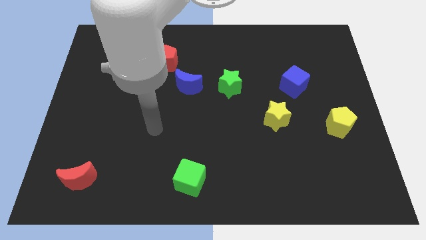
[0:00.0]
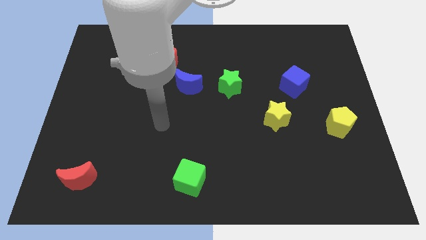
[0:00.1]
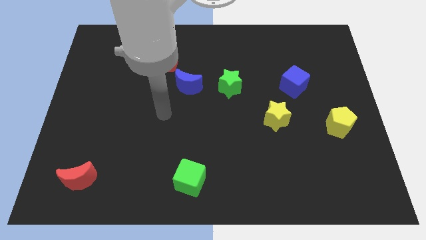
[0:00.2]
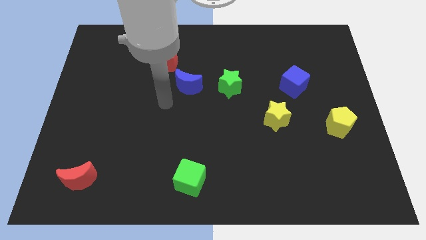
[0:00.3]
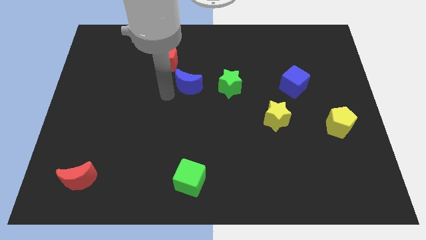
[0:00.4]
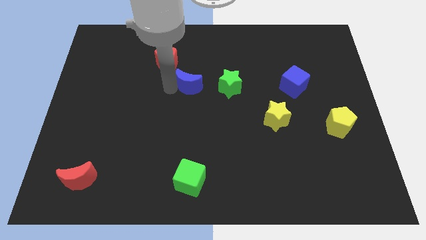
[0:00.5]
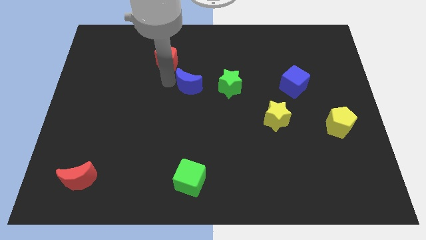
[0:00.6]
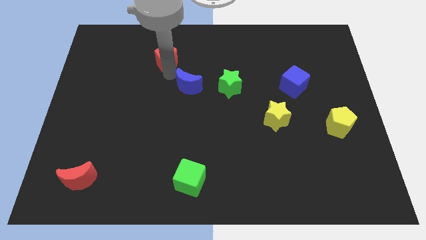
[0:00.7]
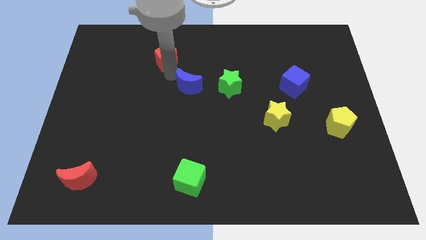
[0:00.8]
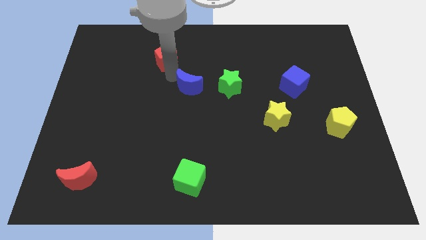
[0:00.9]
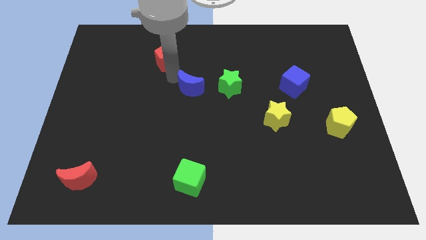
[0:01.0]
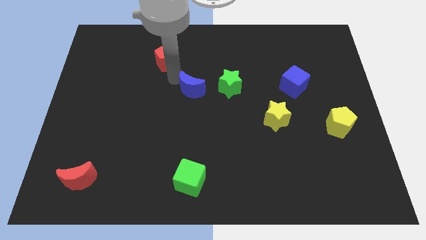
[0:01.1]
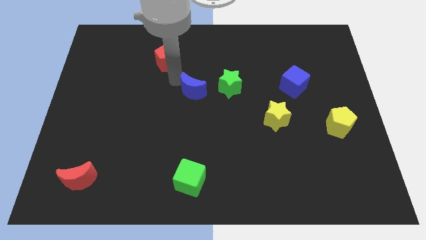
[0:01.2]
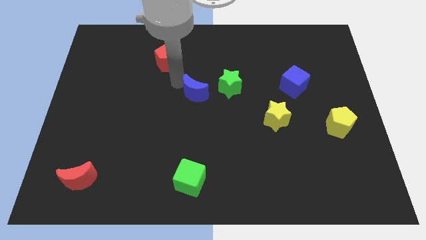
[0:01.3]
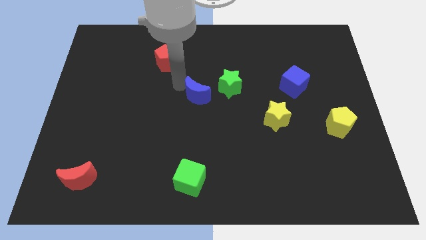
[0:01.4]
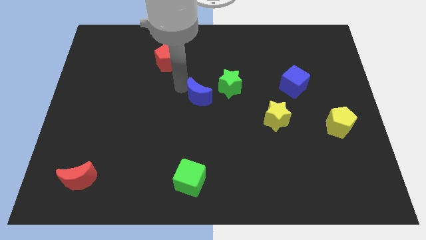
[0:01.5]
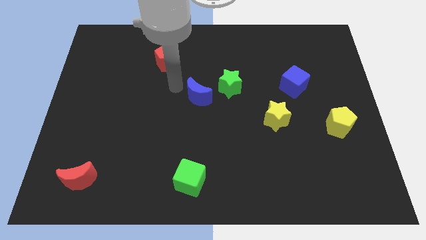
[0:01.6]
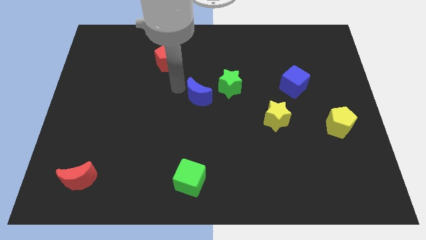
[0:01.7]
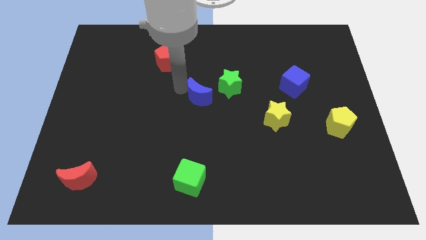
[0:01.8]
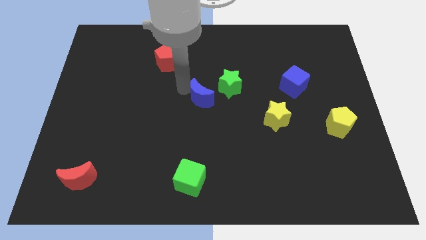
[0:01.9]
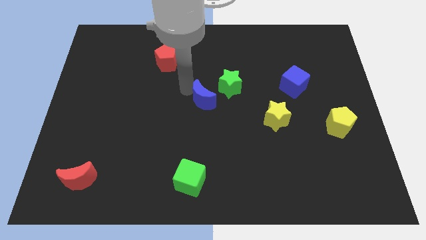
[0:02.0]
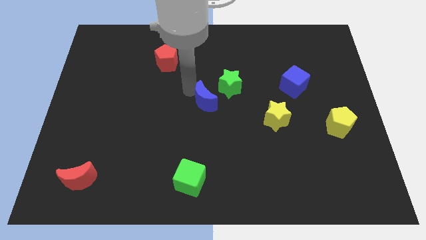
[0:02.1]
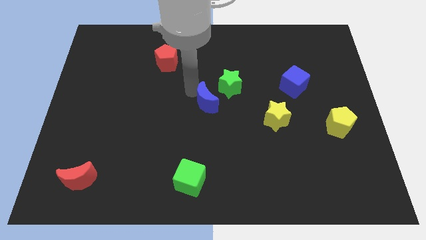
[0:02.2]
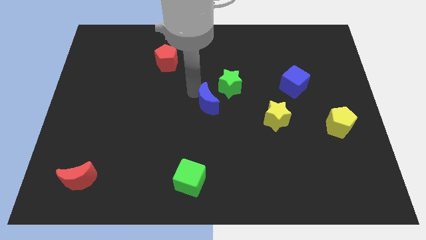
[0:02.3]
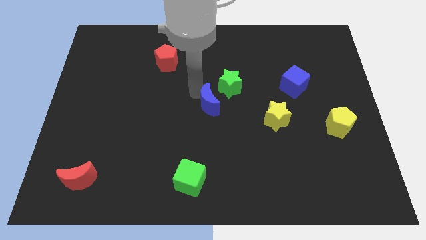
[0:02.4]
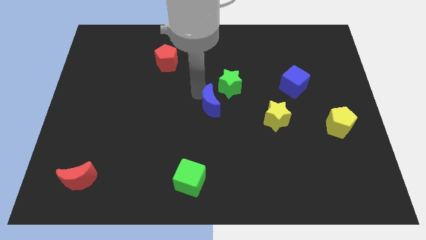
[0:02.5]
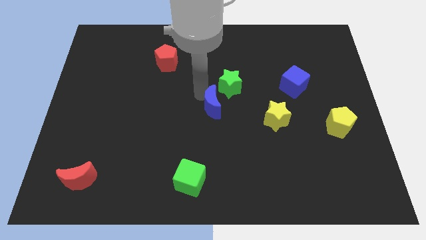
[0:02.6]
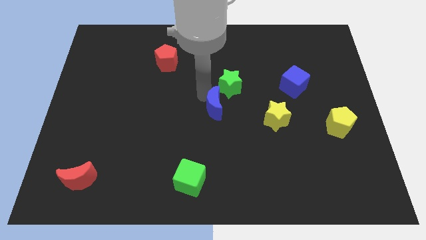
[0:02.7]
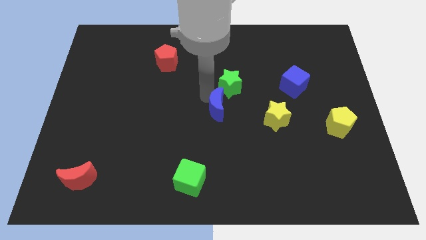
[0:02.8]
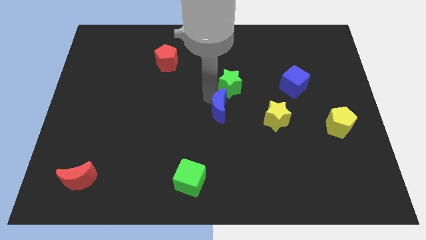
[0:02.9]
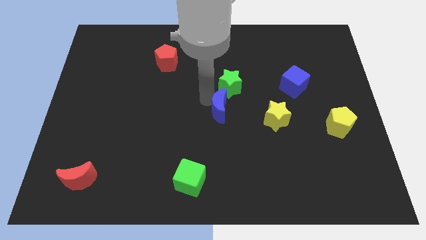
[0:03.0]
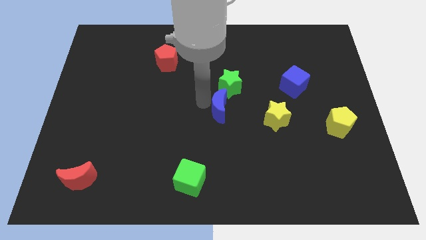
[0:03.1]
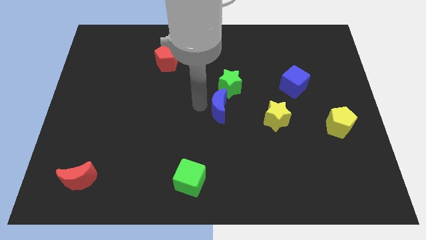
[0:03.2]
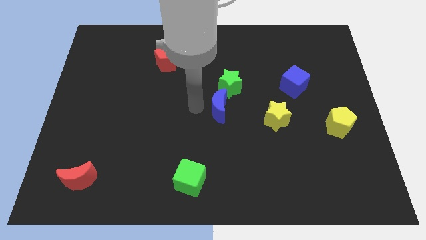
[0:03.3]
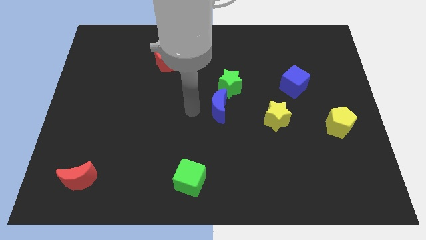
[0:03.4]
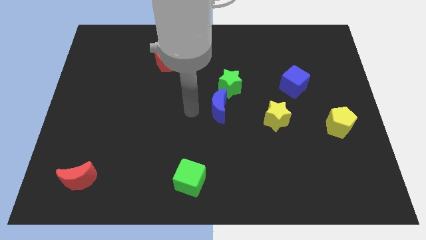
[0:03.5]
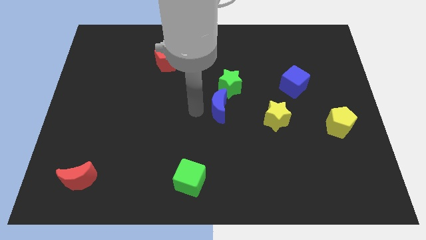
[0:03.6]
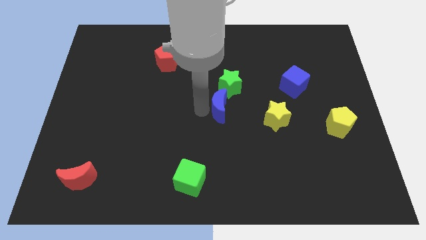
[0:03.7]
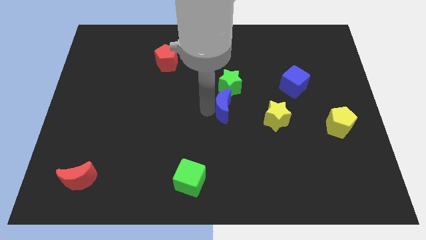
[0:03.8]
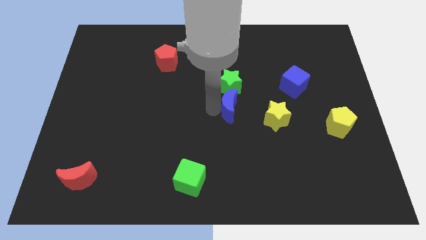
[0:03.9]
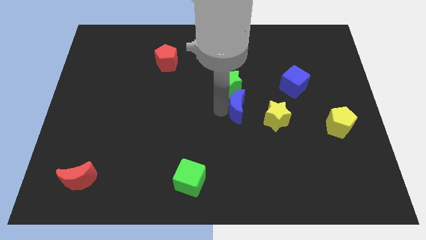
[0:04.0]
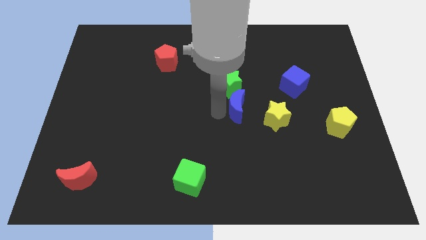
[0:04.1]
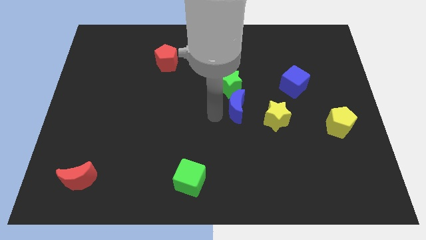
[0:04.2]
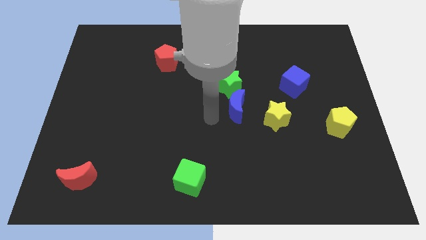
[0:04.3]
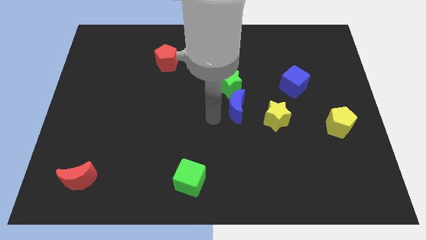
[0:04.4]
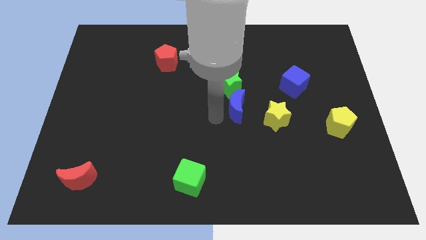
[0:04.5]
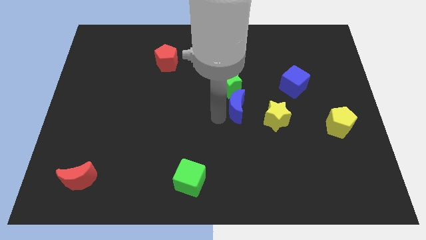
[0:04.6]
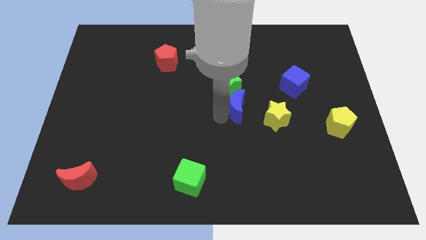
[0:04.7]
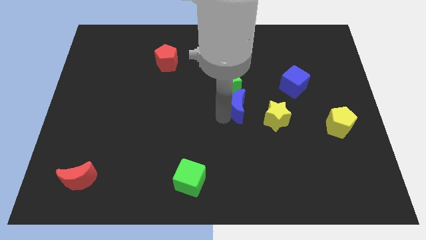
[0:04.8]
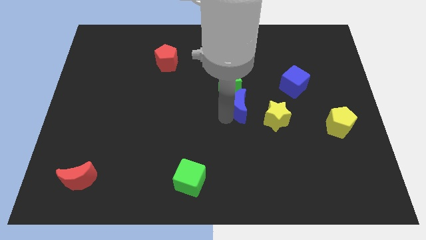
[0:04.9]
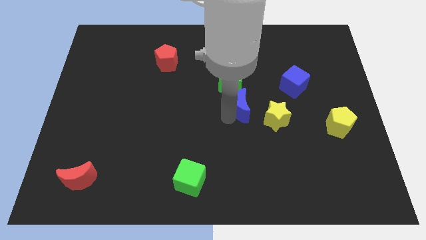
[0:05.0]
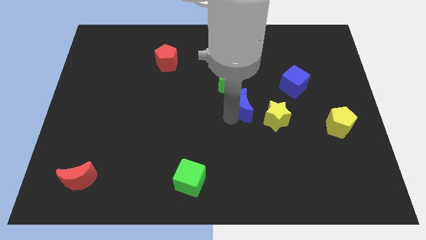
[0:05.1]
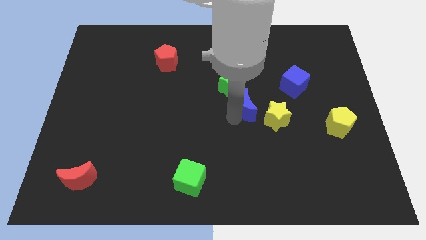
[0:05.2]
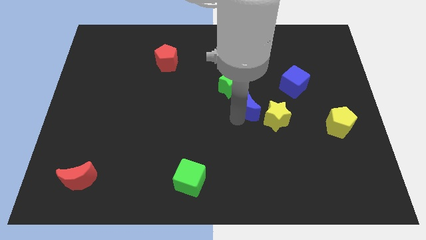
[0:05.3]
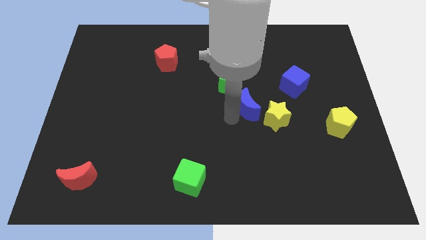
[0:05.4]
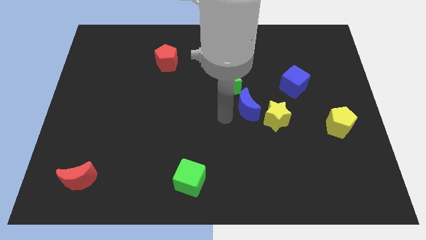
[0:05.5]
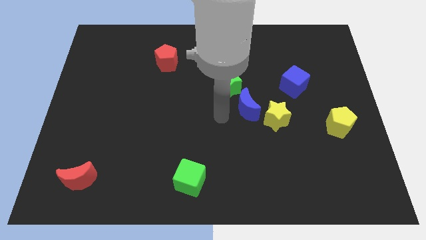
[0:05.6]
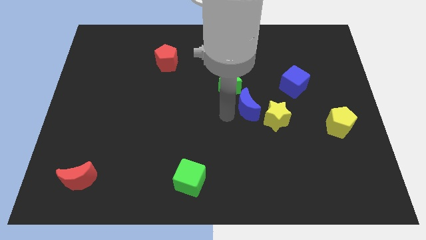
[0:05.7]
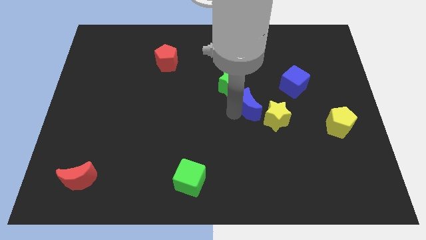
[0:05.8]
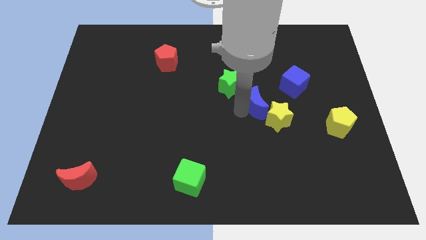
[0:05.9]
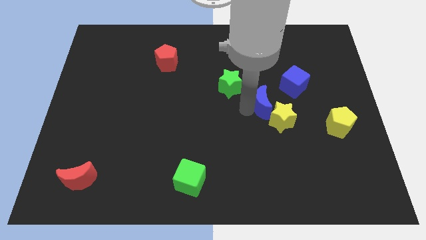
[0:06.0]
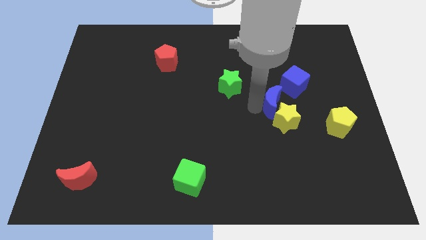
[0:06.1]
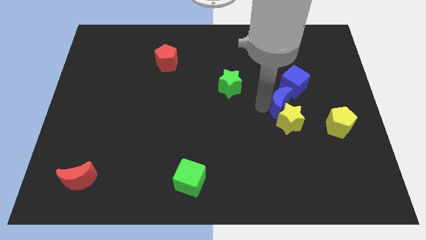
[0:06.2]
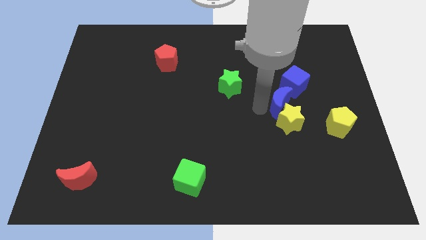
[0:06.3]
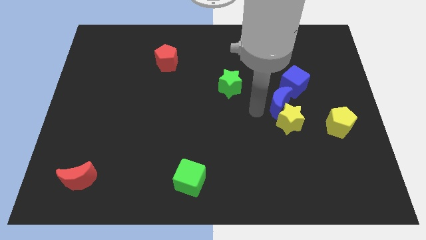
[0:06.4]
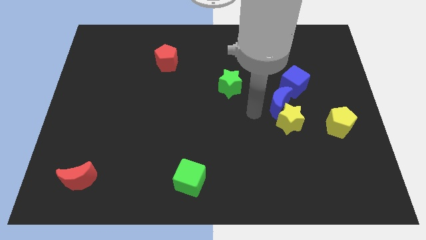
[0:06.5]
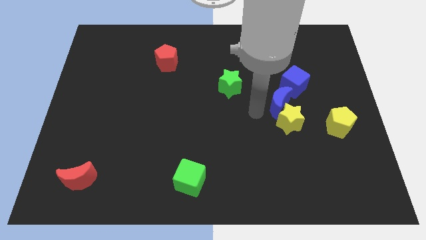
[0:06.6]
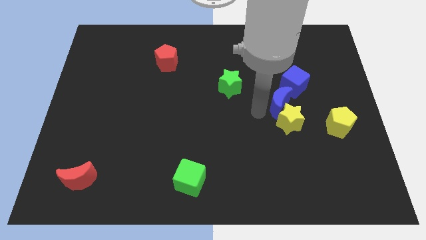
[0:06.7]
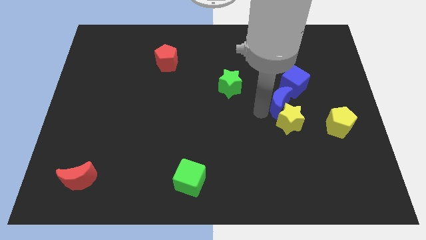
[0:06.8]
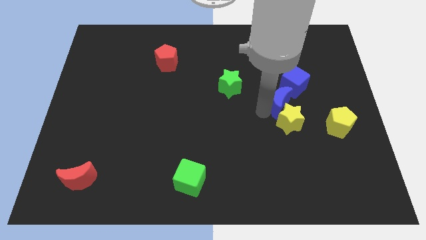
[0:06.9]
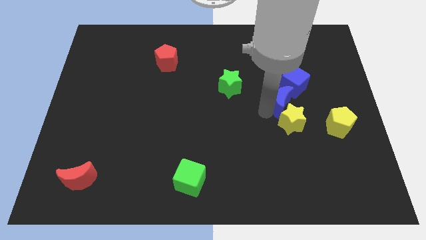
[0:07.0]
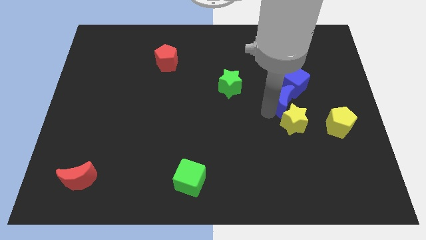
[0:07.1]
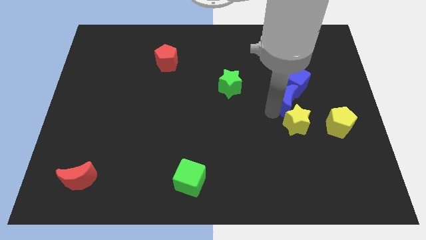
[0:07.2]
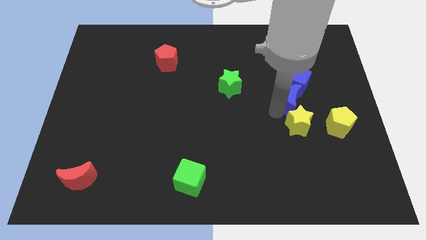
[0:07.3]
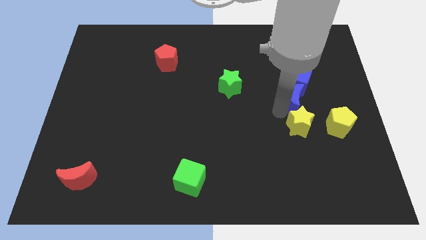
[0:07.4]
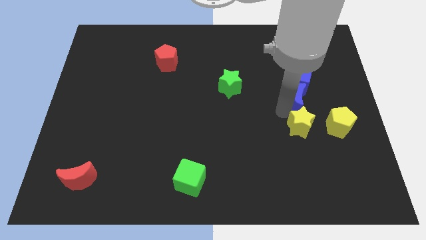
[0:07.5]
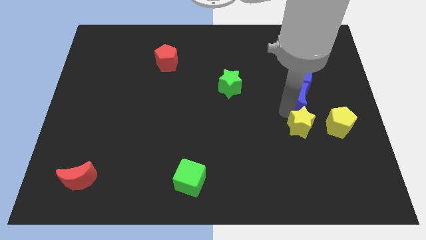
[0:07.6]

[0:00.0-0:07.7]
push the blue moon to the bottom right of the blue cube

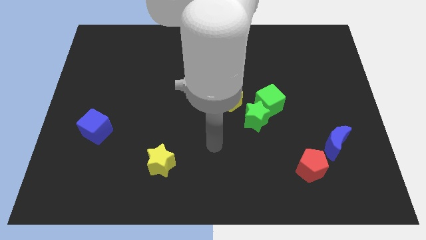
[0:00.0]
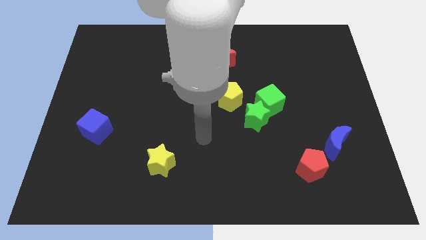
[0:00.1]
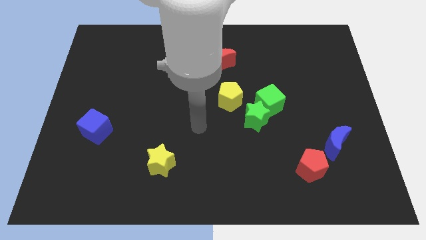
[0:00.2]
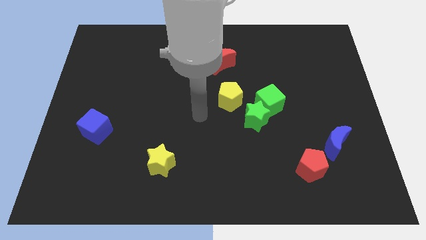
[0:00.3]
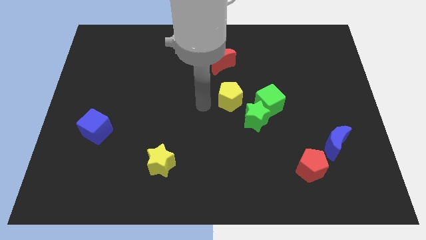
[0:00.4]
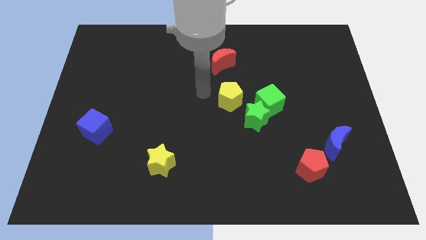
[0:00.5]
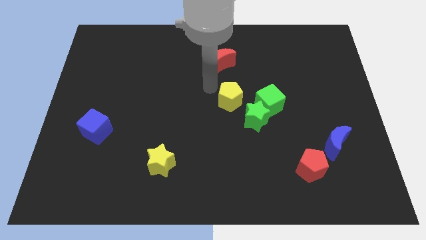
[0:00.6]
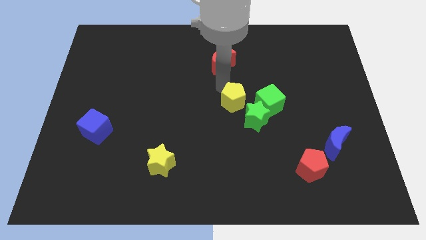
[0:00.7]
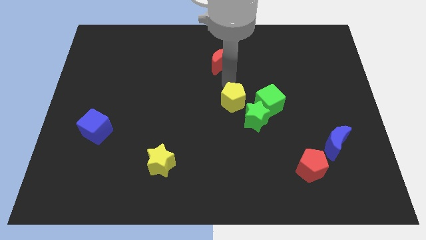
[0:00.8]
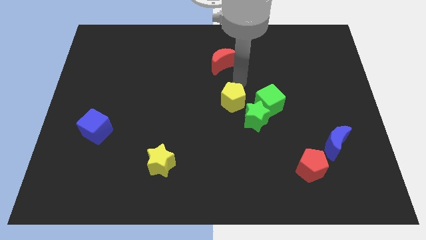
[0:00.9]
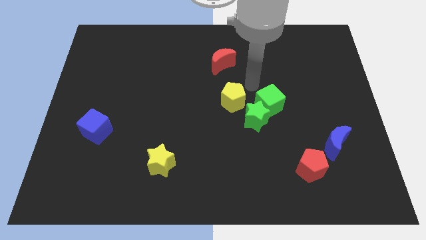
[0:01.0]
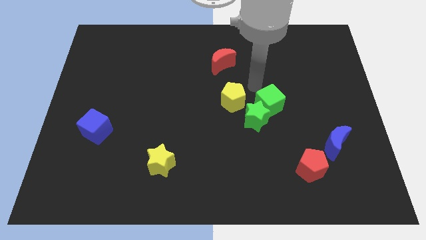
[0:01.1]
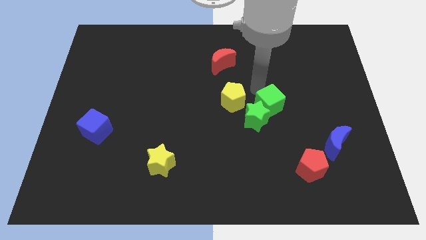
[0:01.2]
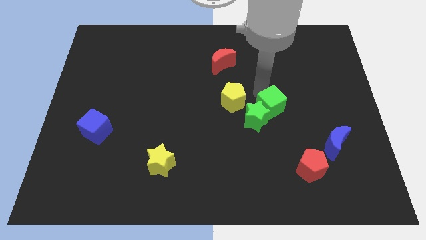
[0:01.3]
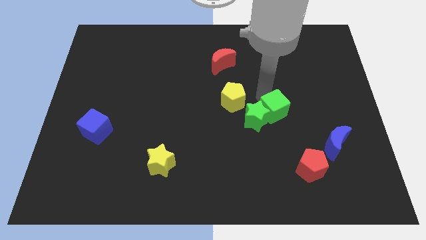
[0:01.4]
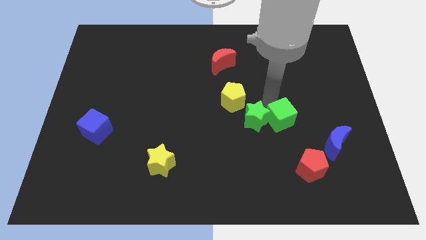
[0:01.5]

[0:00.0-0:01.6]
put the green cube to the bottom right of the green star
